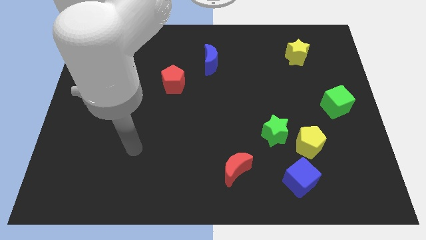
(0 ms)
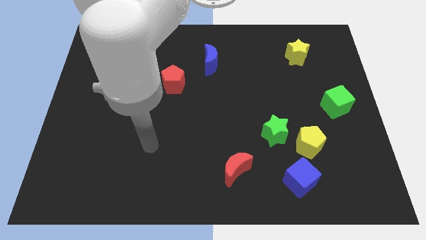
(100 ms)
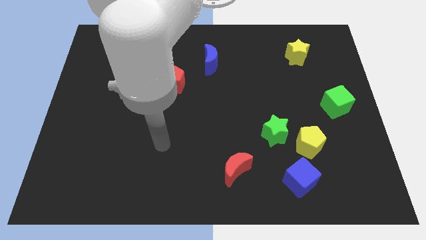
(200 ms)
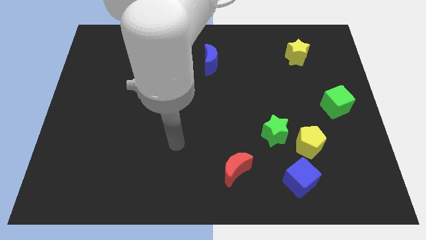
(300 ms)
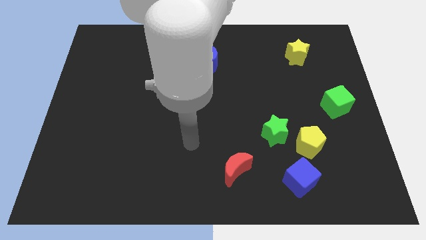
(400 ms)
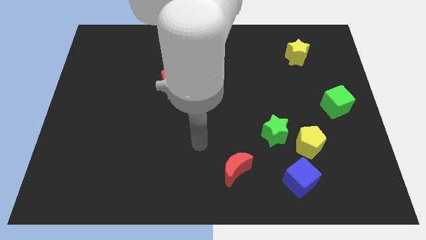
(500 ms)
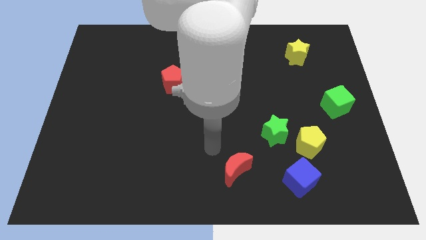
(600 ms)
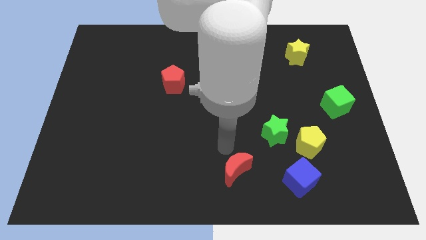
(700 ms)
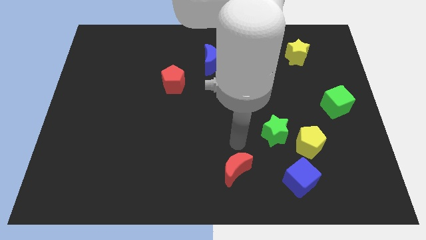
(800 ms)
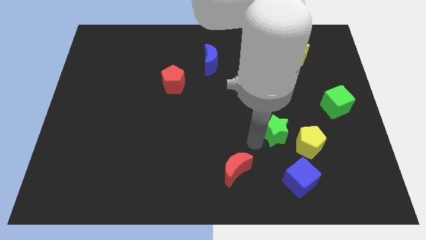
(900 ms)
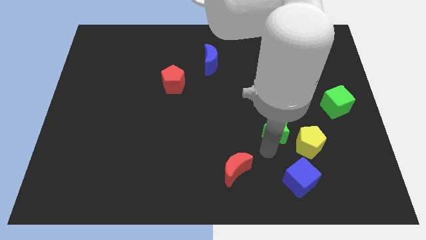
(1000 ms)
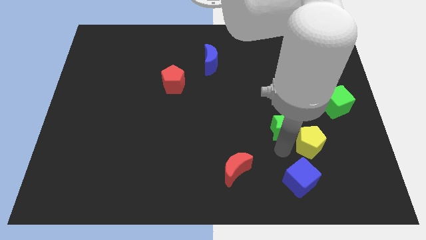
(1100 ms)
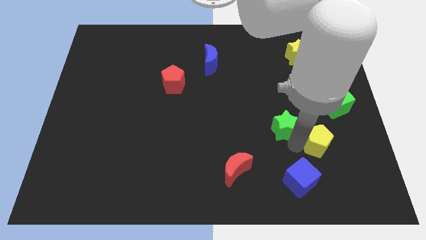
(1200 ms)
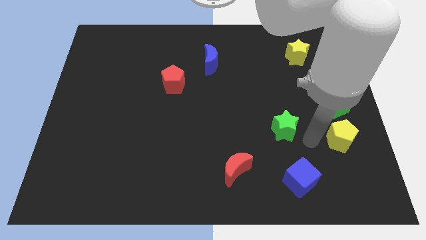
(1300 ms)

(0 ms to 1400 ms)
pull the green star apart from the yellow pentagon

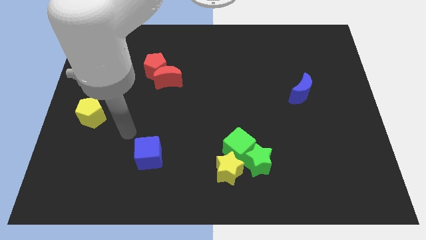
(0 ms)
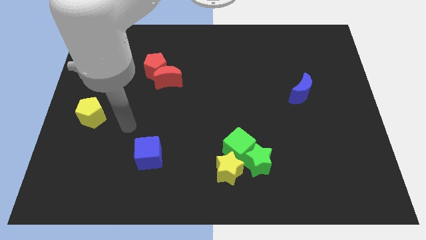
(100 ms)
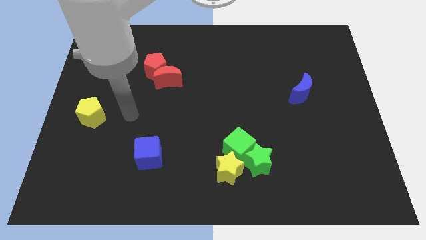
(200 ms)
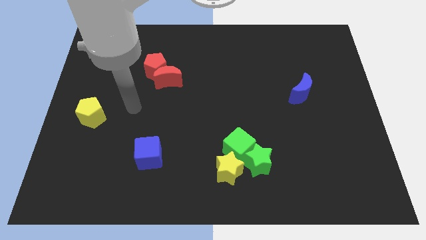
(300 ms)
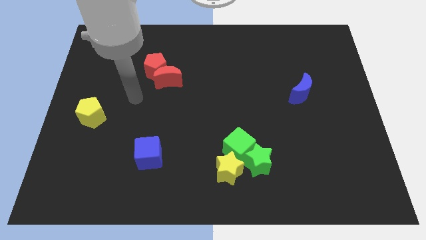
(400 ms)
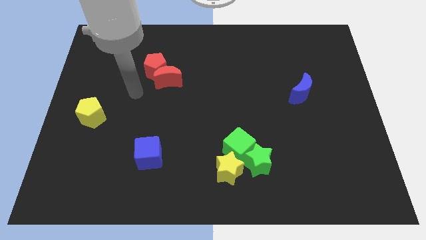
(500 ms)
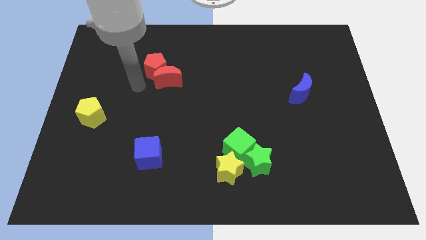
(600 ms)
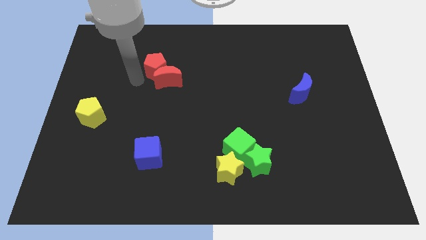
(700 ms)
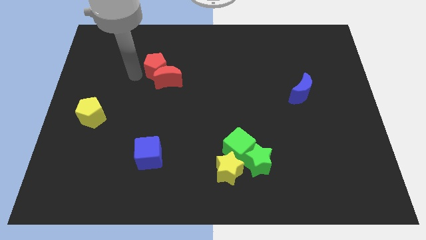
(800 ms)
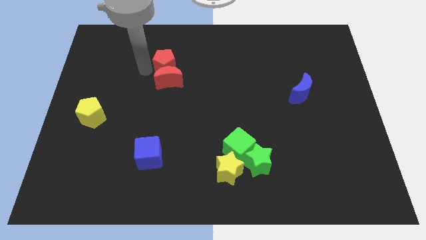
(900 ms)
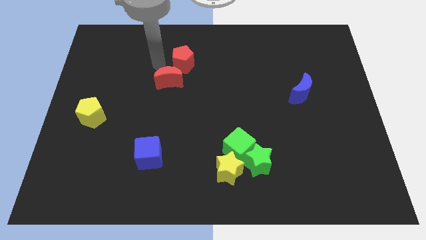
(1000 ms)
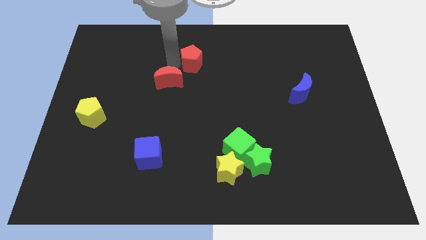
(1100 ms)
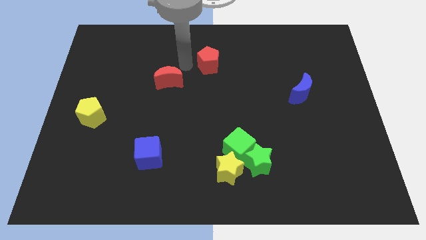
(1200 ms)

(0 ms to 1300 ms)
pull the red moon apart from the red pentagon

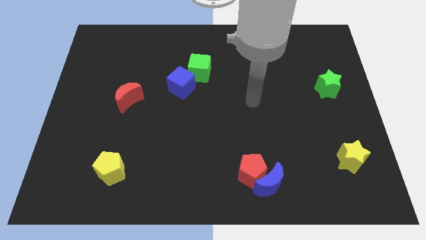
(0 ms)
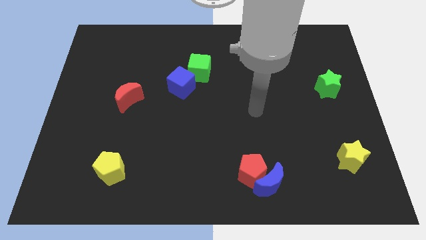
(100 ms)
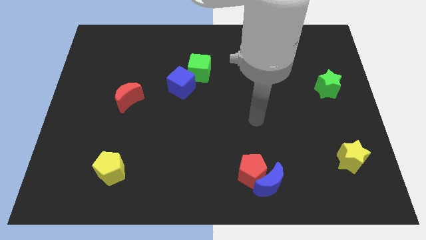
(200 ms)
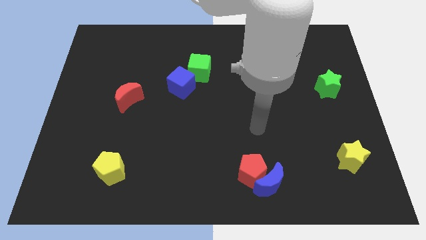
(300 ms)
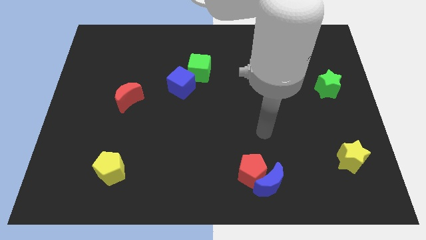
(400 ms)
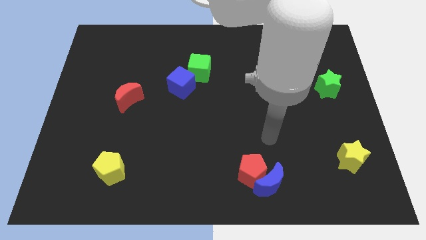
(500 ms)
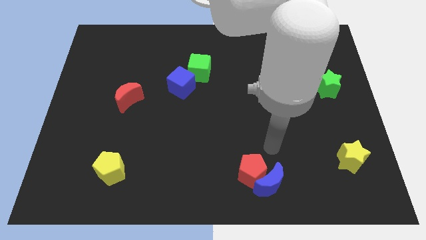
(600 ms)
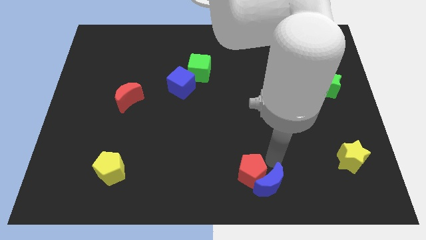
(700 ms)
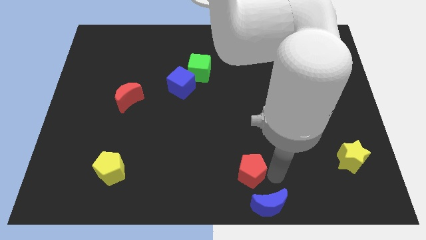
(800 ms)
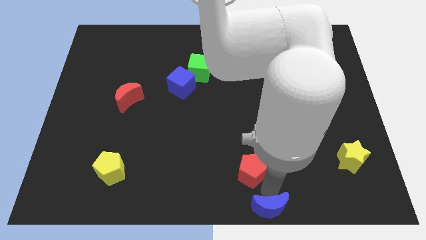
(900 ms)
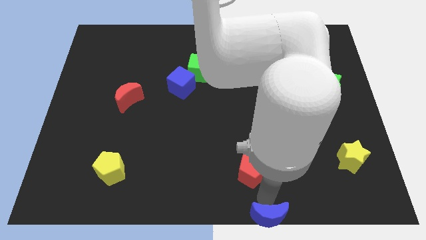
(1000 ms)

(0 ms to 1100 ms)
move the red pentagon away from the blue moon

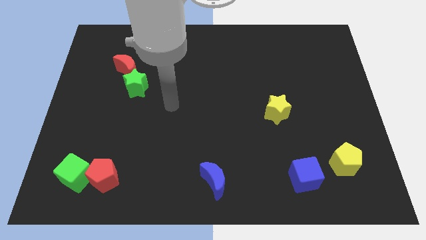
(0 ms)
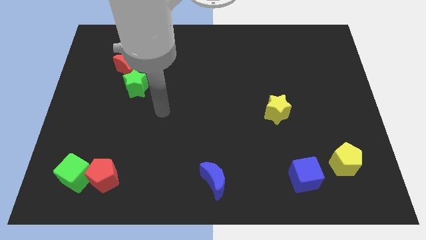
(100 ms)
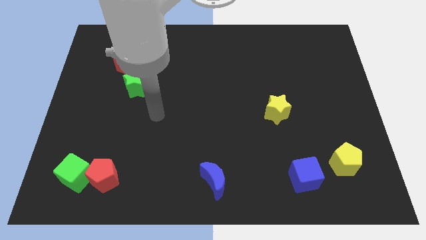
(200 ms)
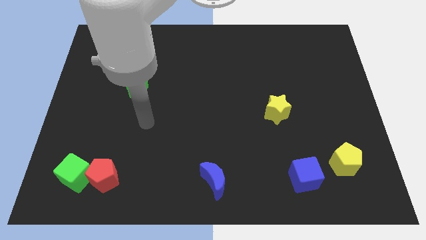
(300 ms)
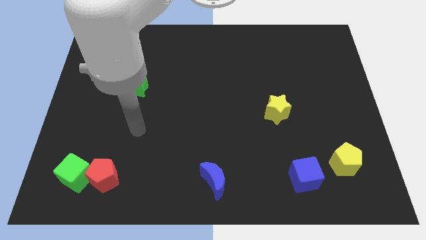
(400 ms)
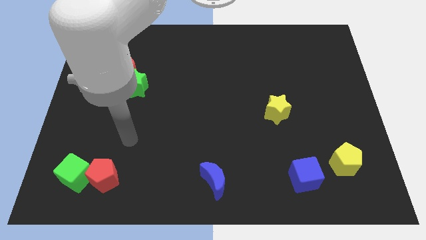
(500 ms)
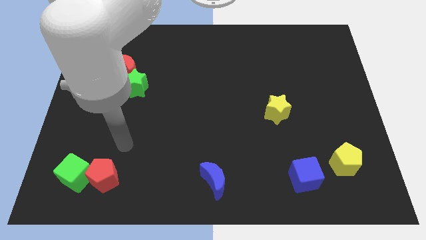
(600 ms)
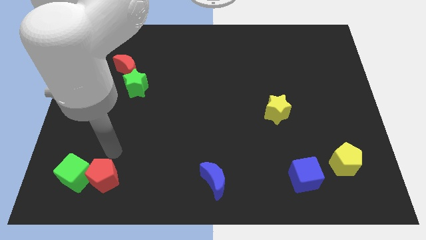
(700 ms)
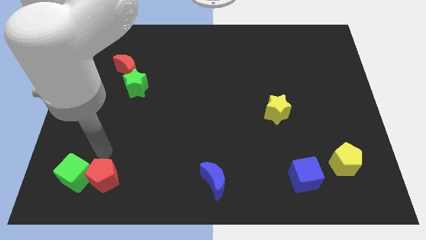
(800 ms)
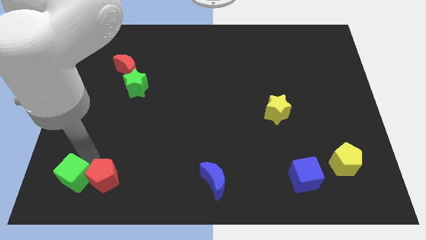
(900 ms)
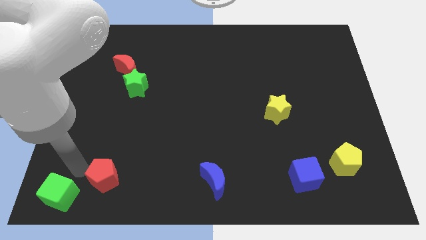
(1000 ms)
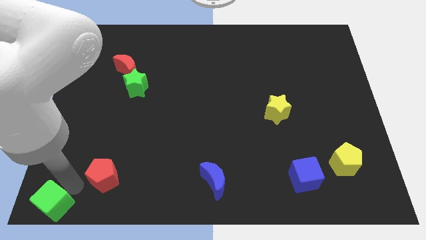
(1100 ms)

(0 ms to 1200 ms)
separate the red pentagon from the green cube

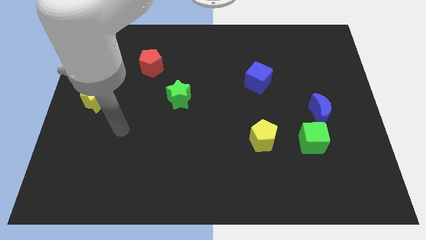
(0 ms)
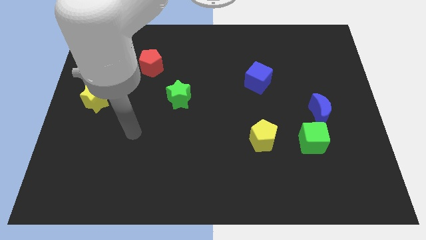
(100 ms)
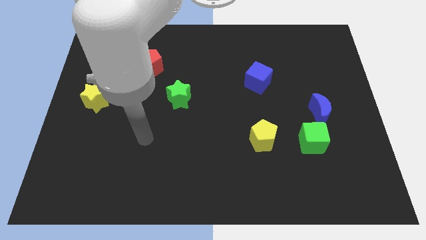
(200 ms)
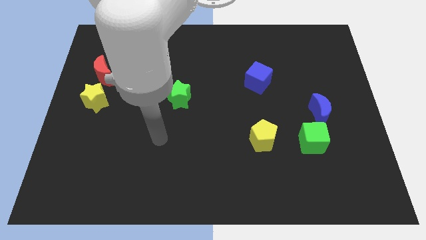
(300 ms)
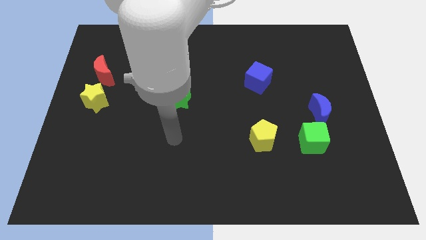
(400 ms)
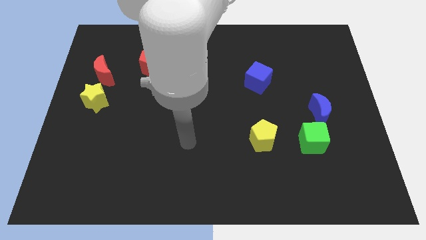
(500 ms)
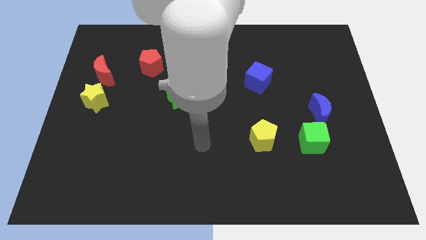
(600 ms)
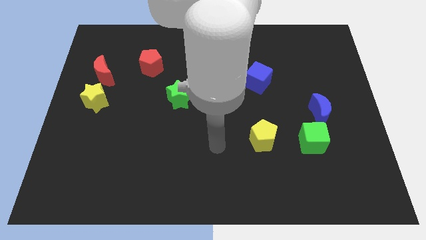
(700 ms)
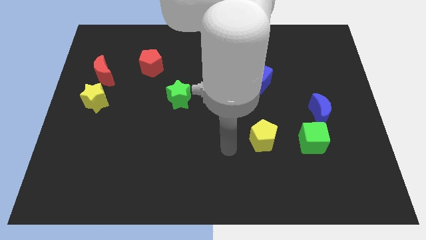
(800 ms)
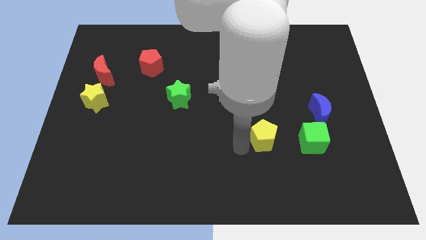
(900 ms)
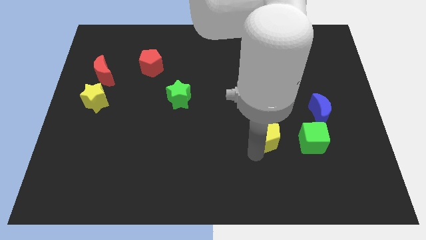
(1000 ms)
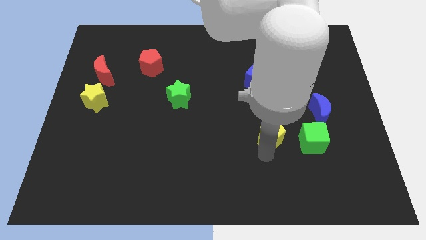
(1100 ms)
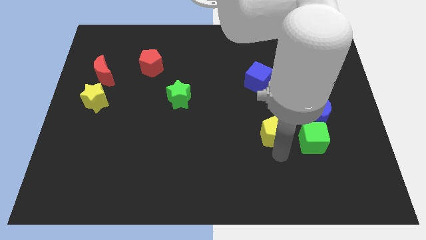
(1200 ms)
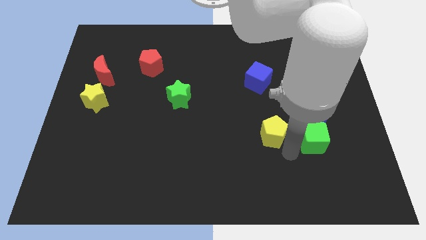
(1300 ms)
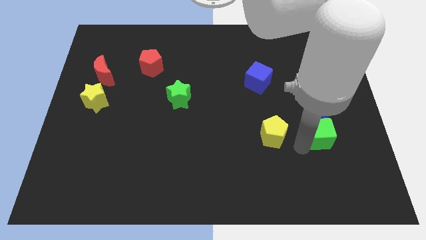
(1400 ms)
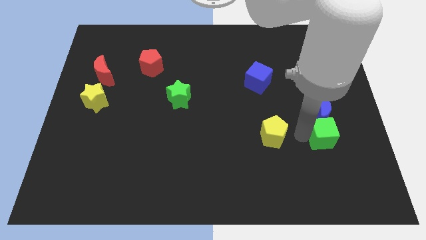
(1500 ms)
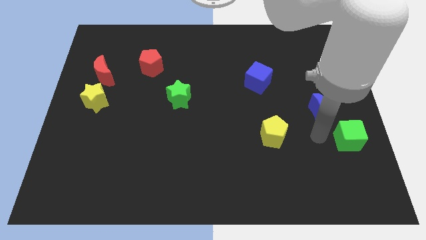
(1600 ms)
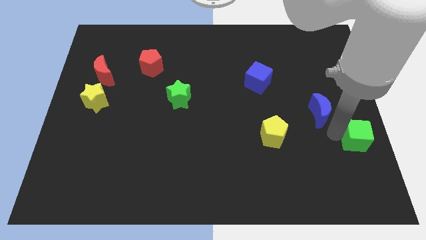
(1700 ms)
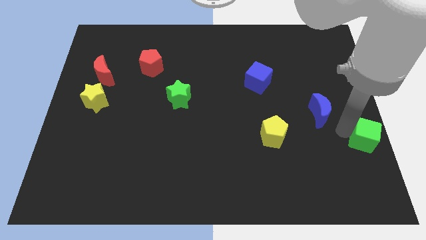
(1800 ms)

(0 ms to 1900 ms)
pull the blue moon apart from the green cube

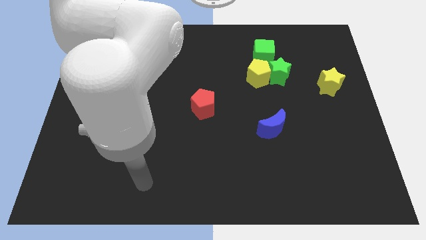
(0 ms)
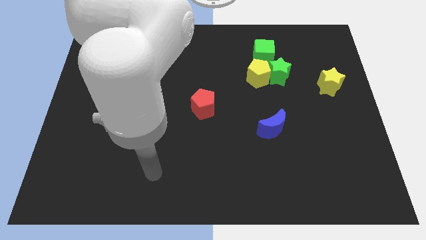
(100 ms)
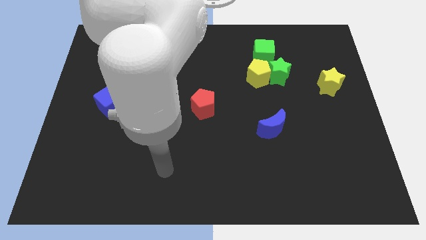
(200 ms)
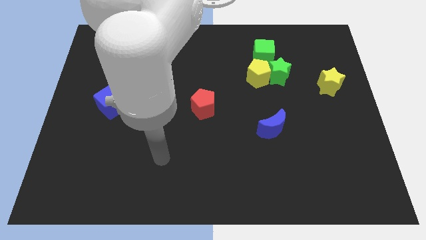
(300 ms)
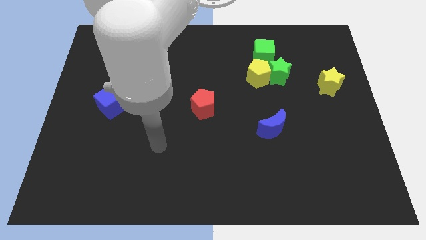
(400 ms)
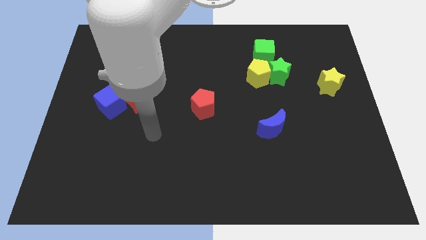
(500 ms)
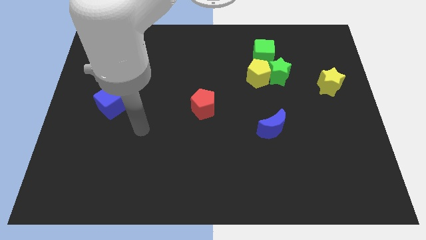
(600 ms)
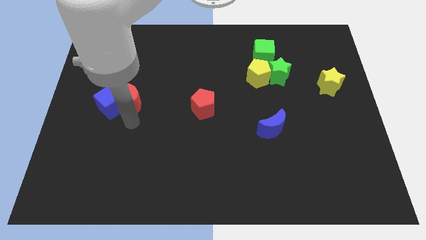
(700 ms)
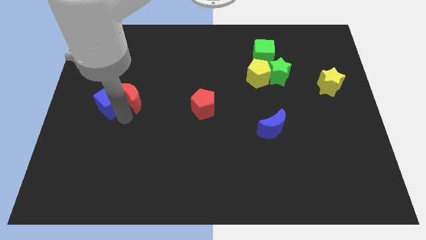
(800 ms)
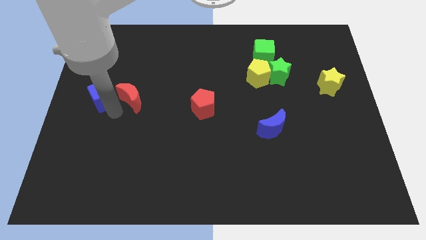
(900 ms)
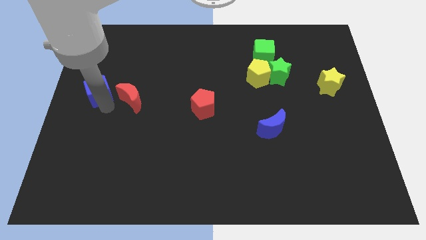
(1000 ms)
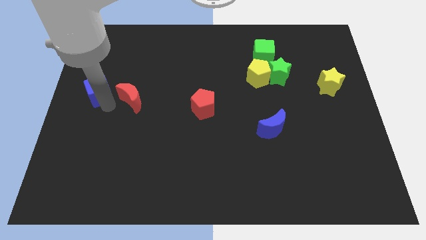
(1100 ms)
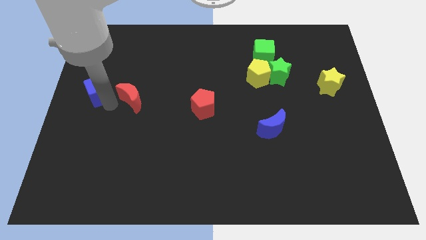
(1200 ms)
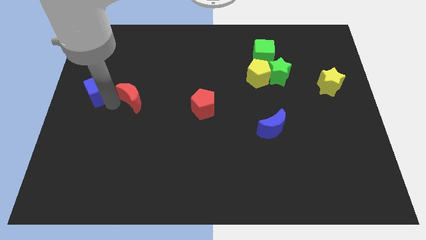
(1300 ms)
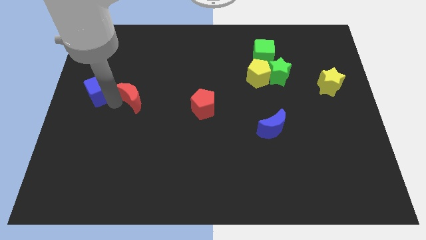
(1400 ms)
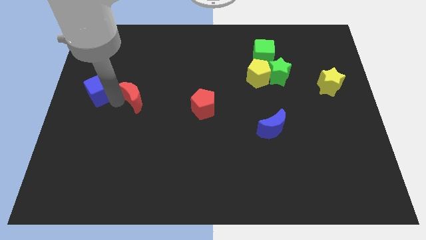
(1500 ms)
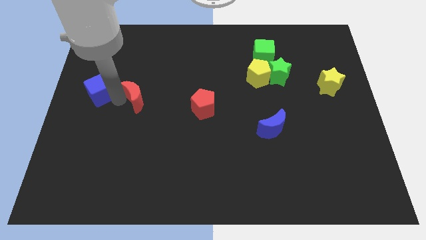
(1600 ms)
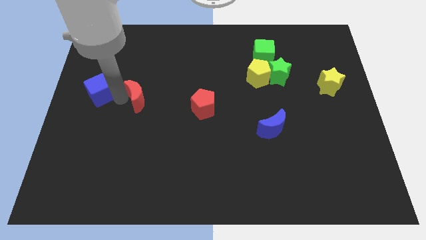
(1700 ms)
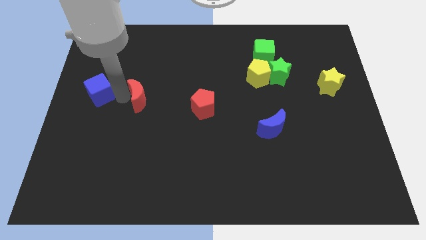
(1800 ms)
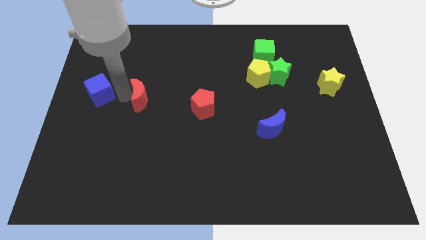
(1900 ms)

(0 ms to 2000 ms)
pull the red moon apart from the blue cube

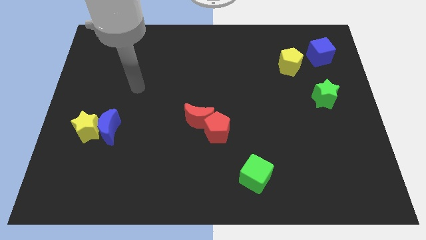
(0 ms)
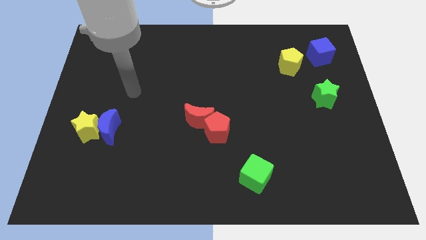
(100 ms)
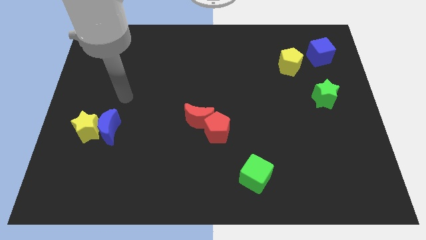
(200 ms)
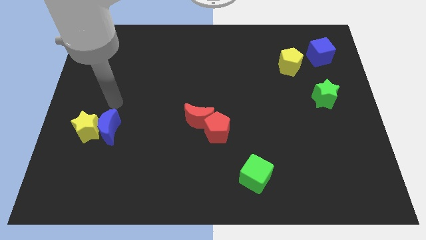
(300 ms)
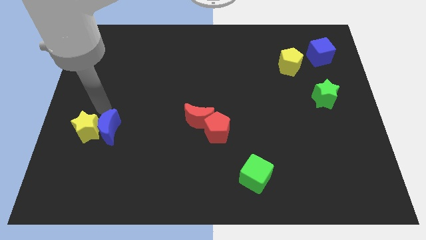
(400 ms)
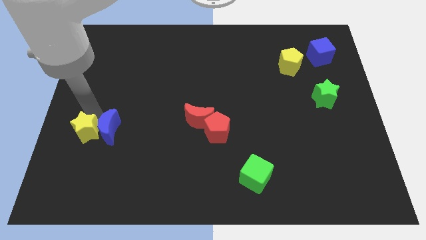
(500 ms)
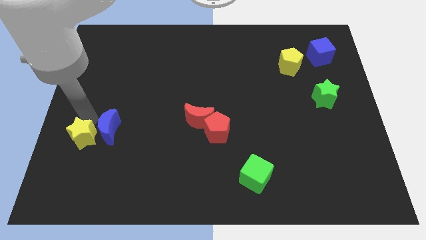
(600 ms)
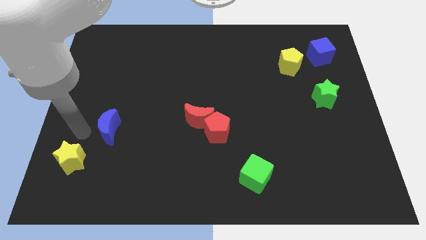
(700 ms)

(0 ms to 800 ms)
separate the blue moon from the yellow star
